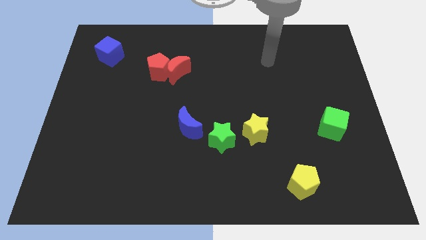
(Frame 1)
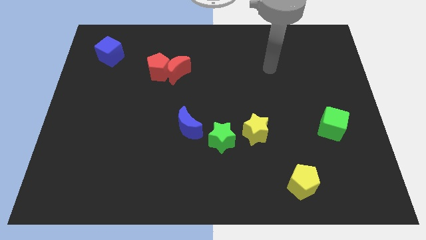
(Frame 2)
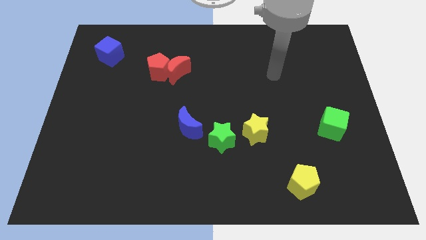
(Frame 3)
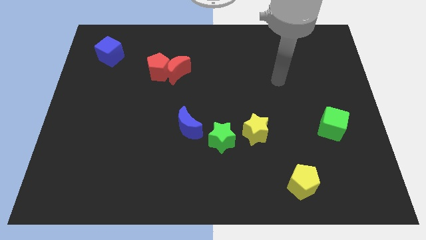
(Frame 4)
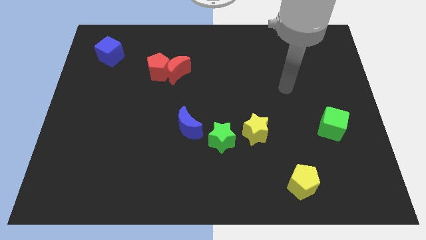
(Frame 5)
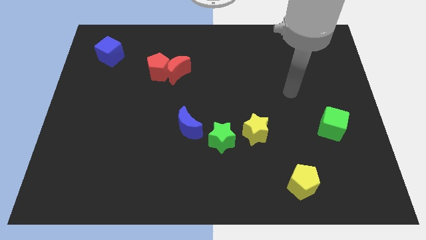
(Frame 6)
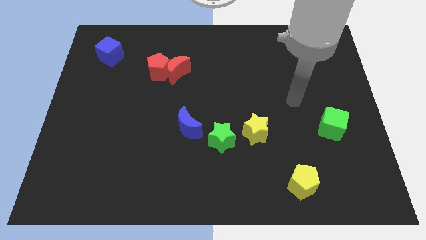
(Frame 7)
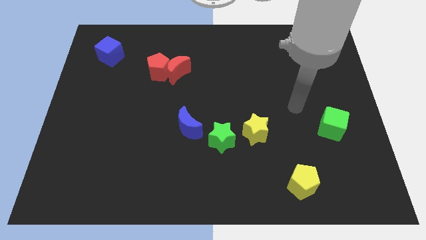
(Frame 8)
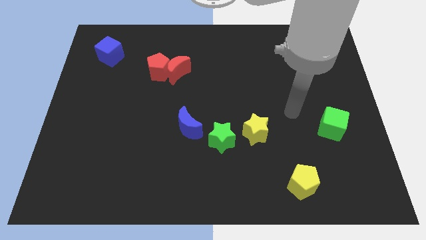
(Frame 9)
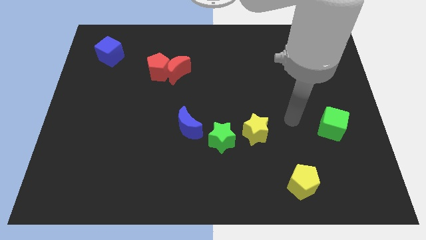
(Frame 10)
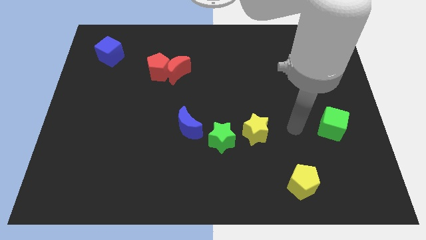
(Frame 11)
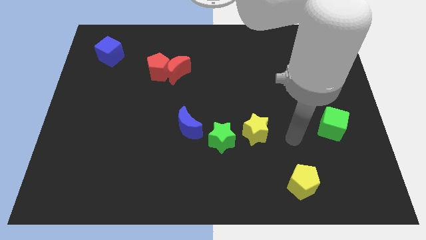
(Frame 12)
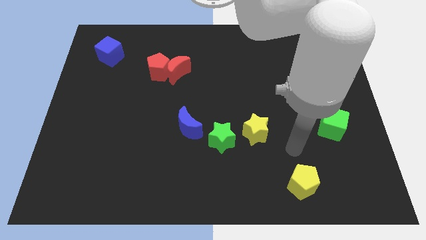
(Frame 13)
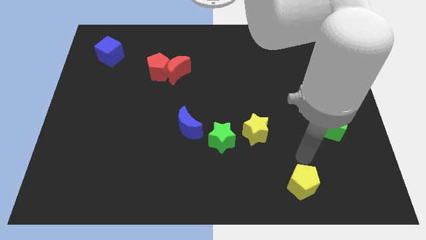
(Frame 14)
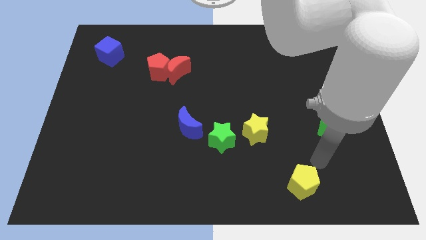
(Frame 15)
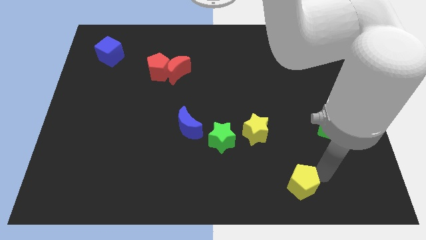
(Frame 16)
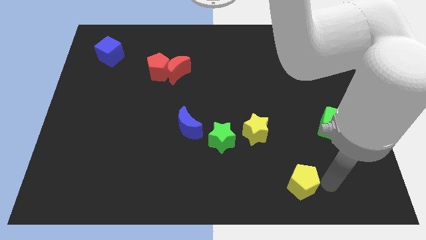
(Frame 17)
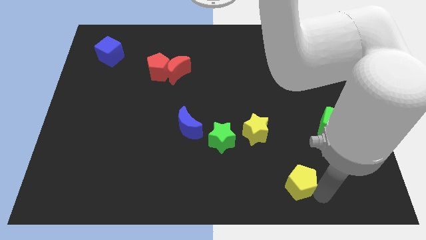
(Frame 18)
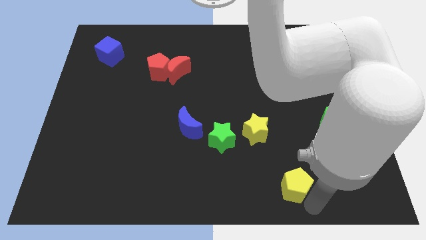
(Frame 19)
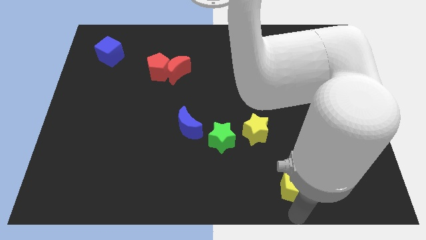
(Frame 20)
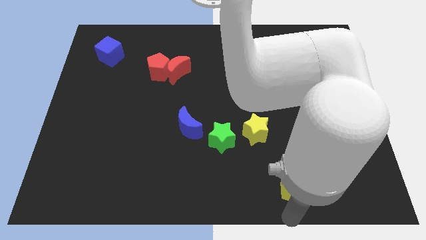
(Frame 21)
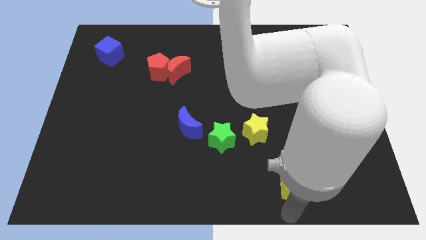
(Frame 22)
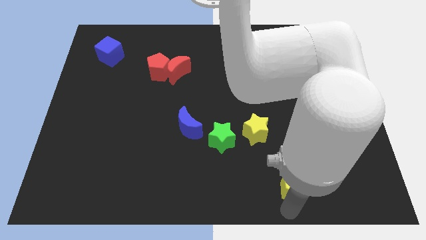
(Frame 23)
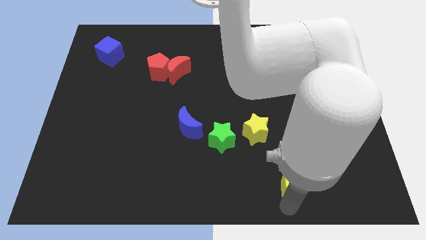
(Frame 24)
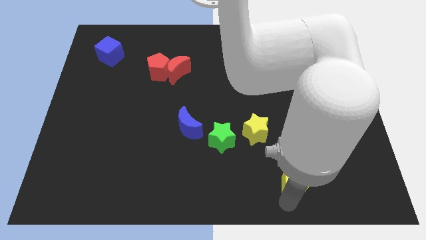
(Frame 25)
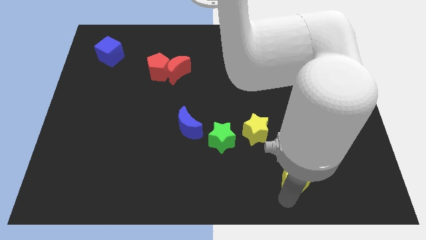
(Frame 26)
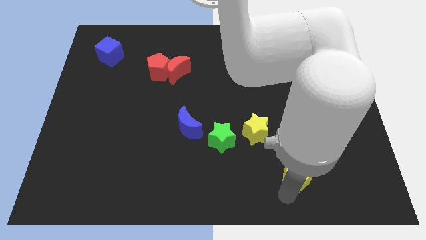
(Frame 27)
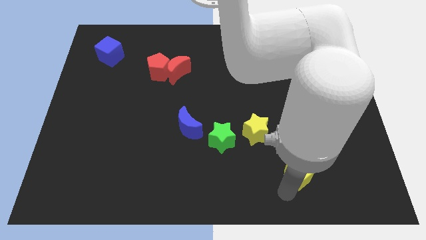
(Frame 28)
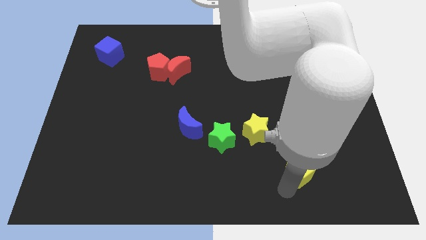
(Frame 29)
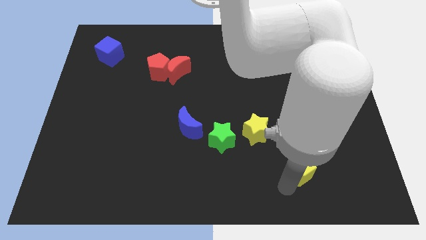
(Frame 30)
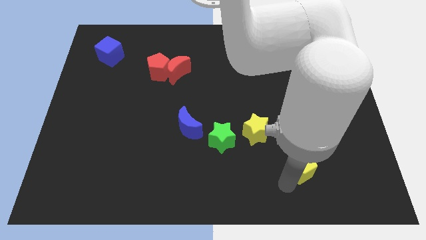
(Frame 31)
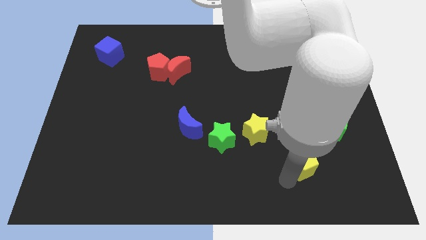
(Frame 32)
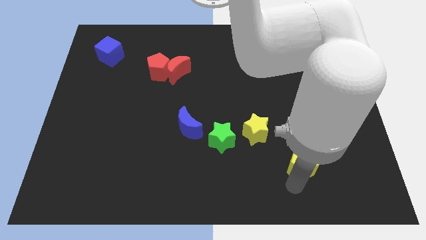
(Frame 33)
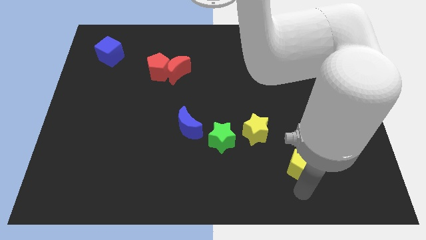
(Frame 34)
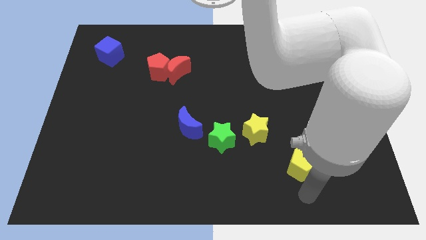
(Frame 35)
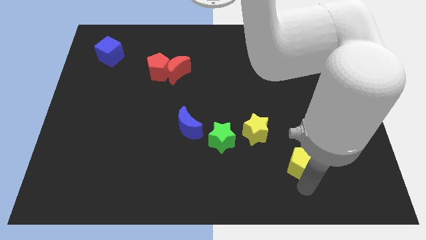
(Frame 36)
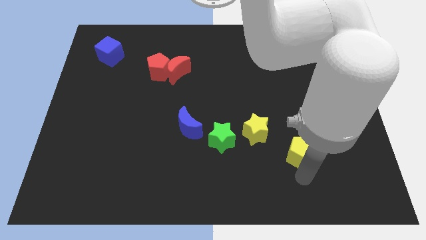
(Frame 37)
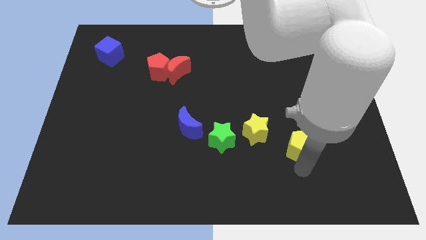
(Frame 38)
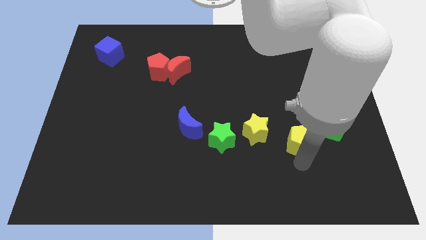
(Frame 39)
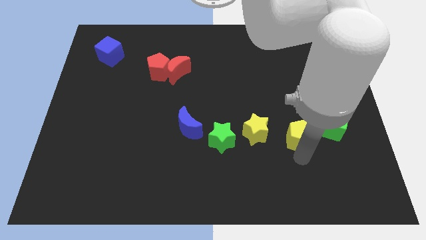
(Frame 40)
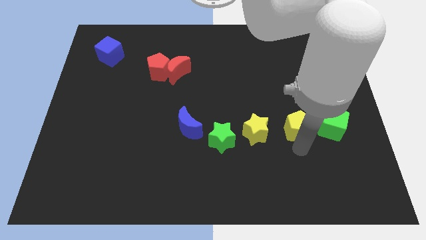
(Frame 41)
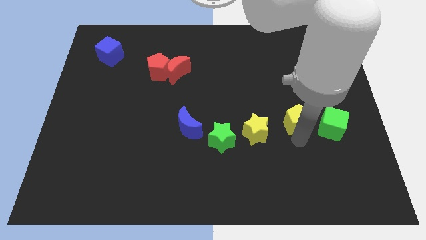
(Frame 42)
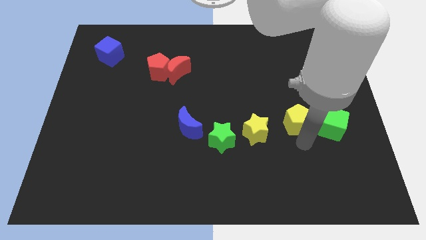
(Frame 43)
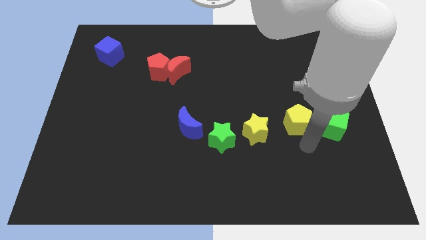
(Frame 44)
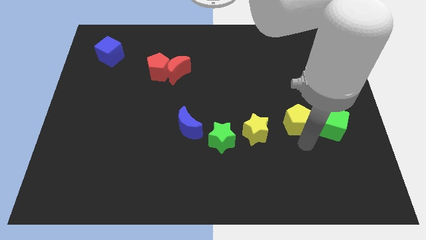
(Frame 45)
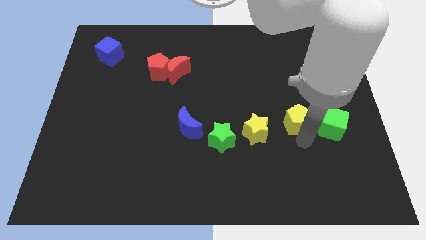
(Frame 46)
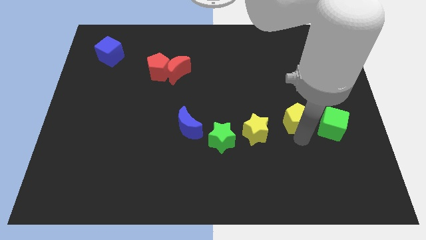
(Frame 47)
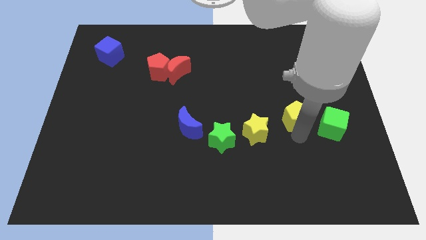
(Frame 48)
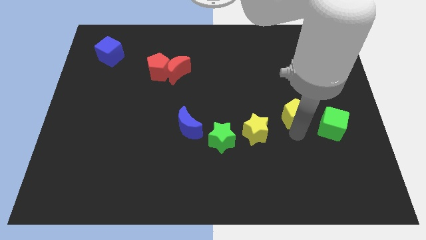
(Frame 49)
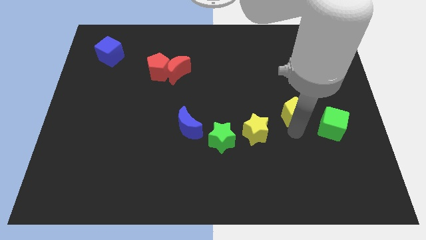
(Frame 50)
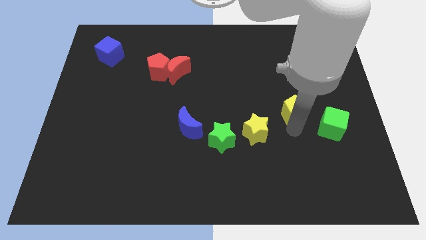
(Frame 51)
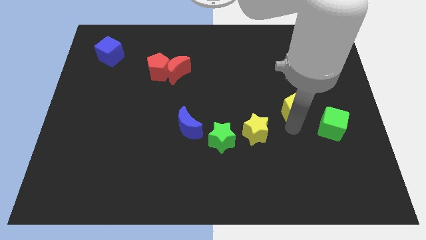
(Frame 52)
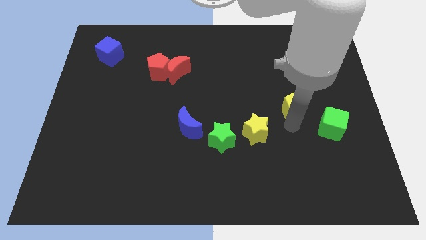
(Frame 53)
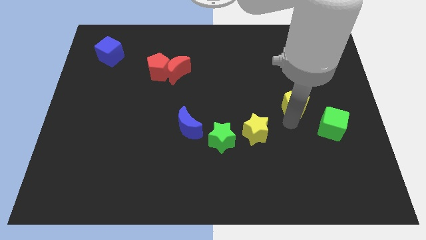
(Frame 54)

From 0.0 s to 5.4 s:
push the yellow pentagon up

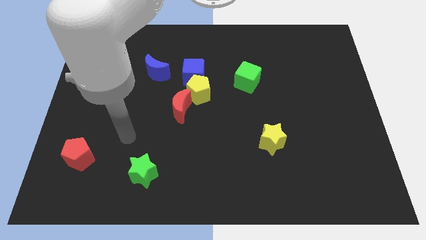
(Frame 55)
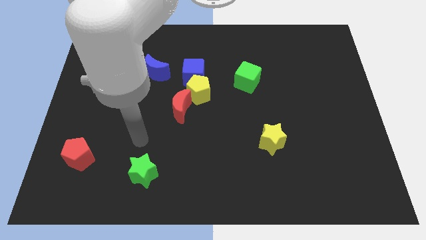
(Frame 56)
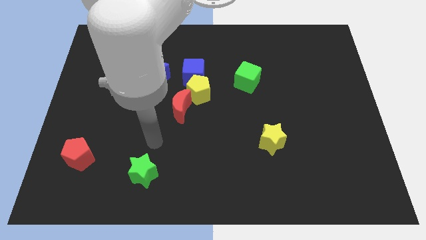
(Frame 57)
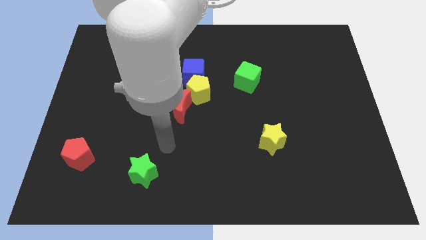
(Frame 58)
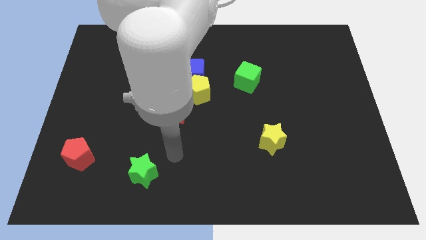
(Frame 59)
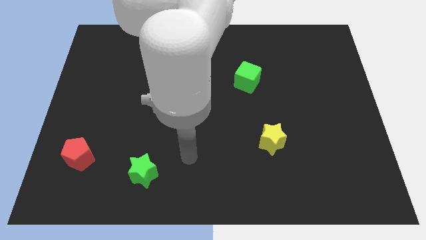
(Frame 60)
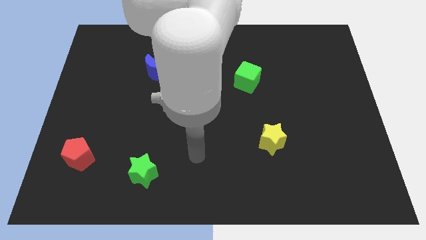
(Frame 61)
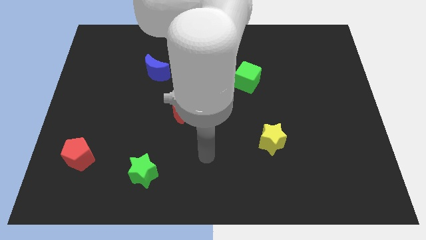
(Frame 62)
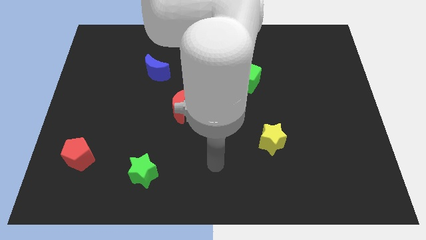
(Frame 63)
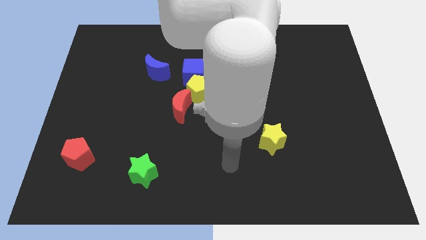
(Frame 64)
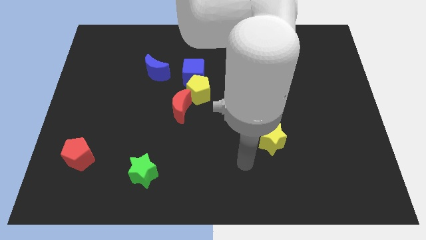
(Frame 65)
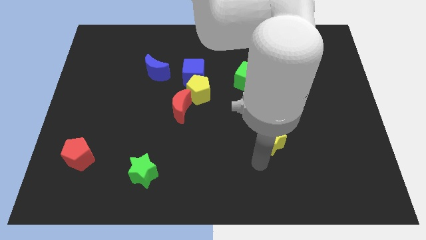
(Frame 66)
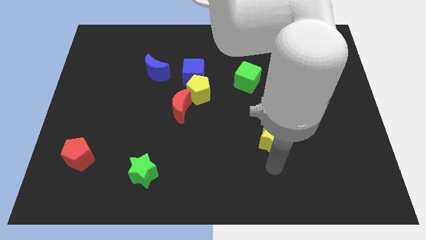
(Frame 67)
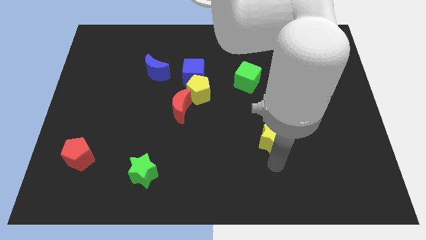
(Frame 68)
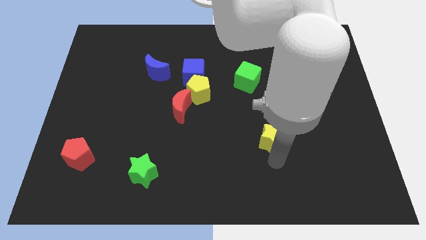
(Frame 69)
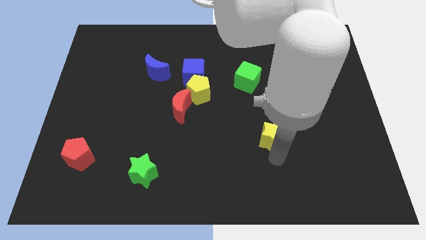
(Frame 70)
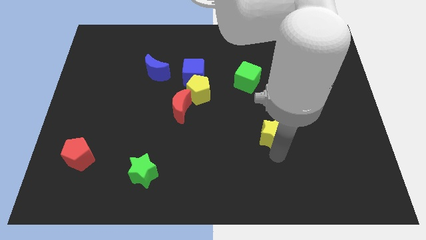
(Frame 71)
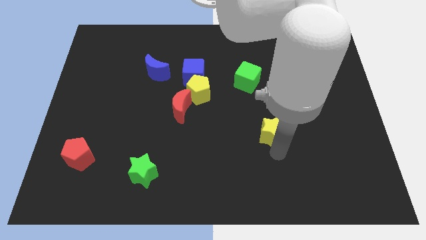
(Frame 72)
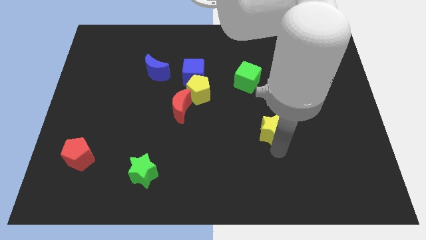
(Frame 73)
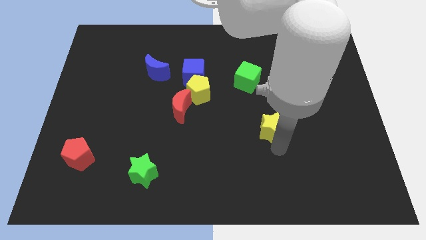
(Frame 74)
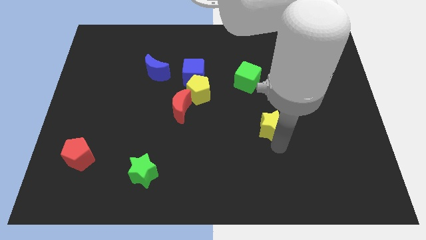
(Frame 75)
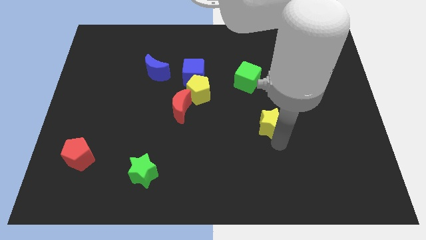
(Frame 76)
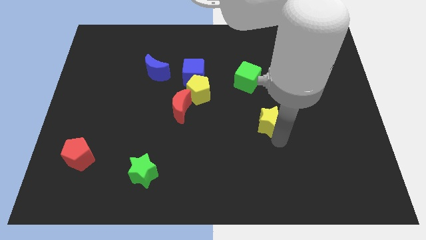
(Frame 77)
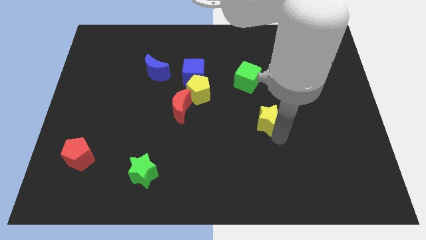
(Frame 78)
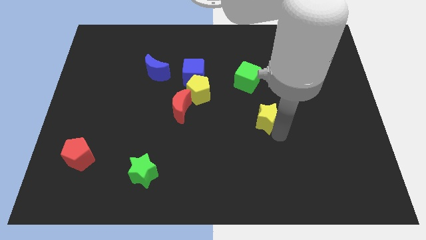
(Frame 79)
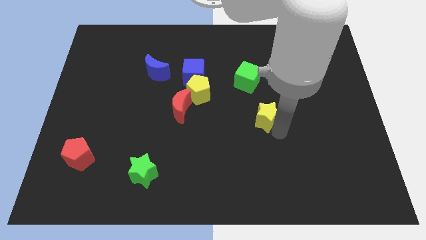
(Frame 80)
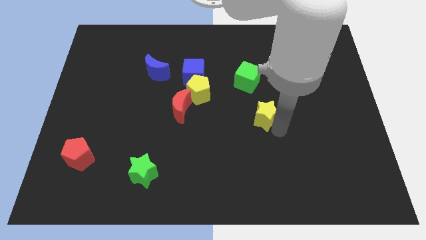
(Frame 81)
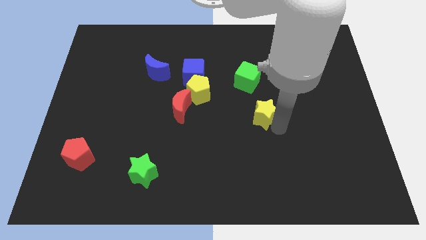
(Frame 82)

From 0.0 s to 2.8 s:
slightly move the yellow star upwards

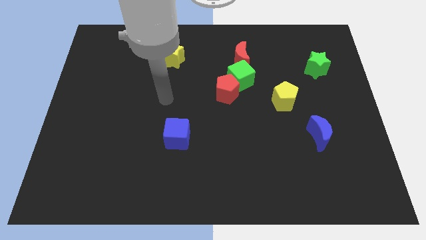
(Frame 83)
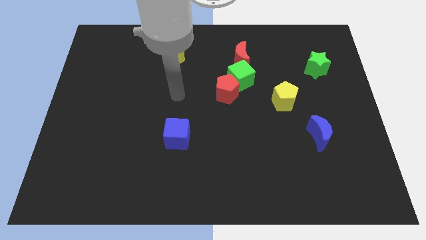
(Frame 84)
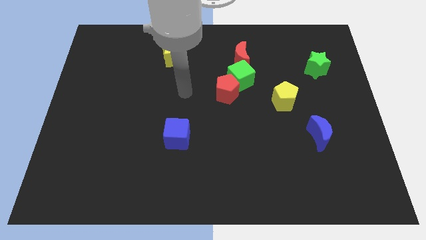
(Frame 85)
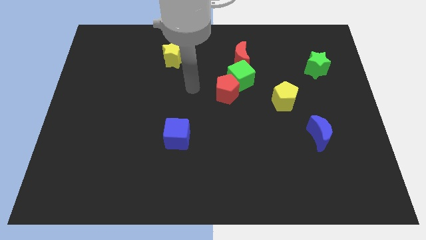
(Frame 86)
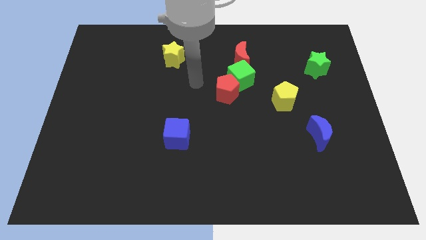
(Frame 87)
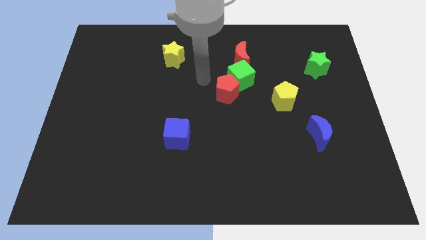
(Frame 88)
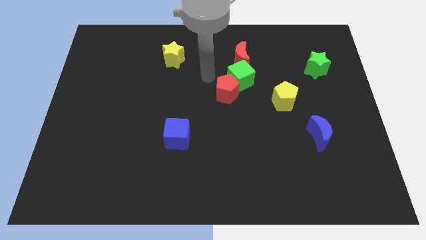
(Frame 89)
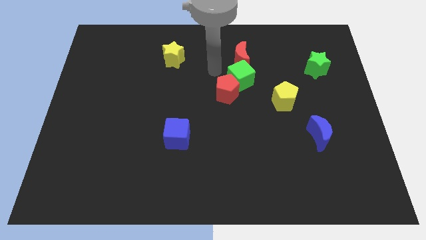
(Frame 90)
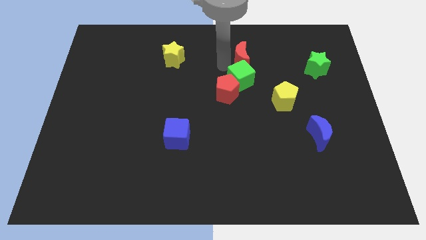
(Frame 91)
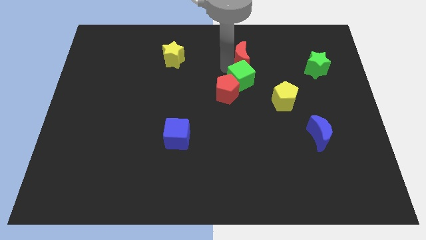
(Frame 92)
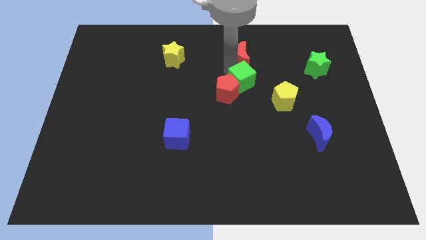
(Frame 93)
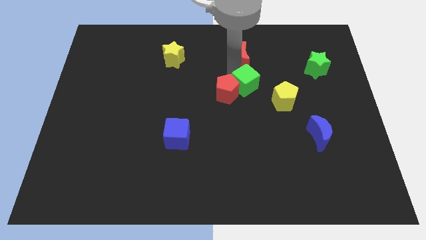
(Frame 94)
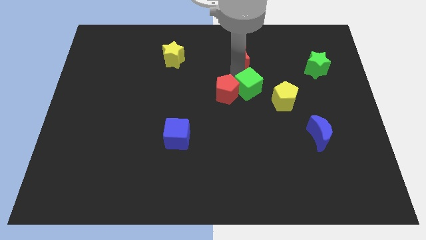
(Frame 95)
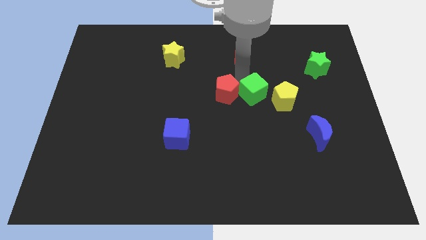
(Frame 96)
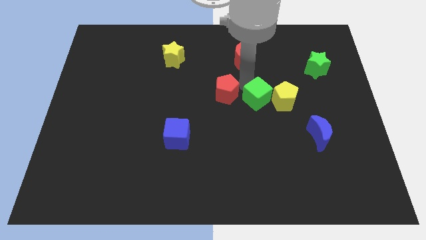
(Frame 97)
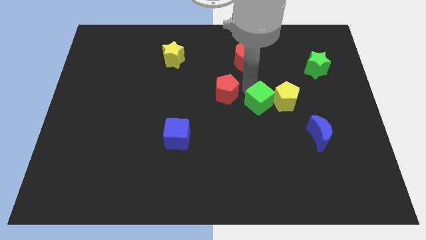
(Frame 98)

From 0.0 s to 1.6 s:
push the green cube a little bit downwards and right
